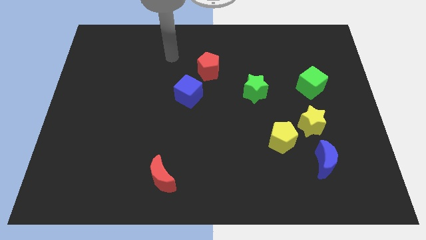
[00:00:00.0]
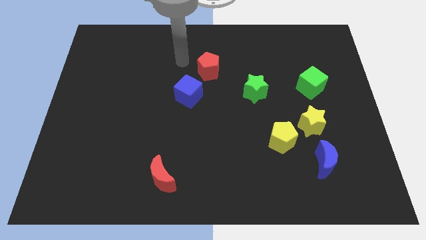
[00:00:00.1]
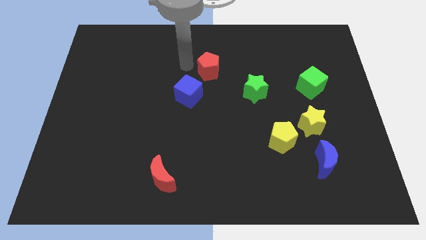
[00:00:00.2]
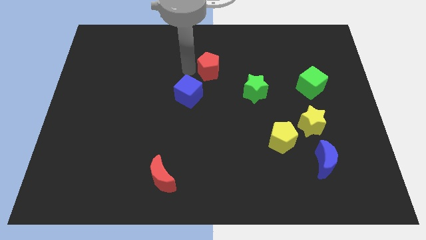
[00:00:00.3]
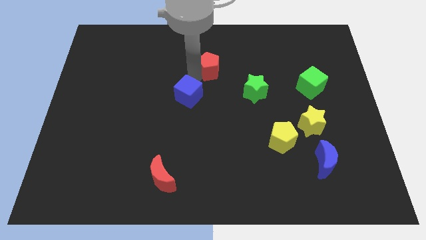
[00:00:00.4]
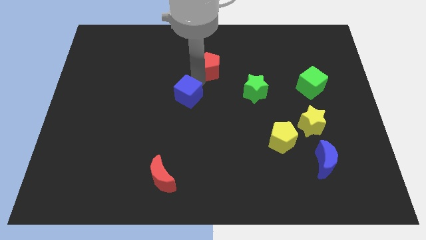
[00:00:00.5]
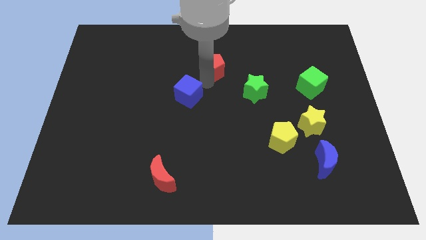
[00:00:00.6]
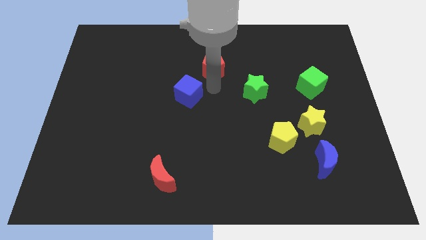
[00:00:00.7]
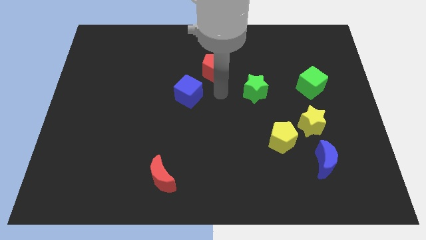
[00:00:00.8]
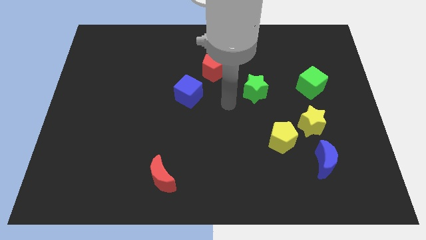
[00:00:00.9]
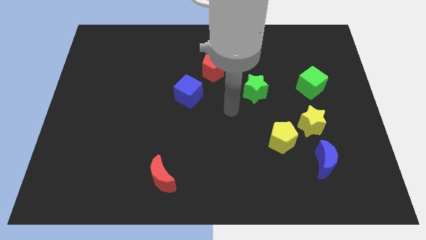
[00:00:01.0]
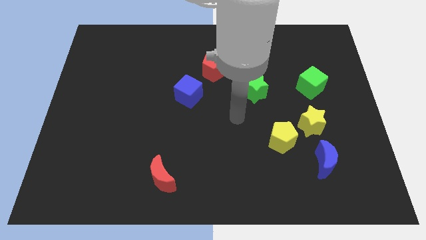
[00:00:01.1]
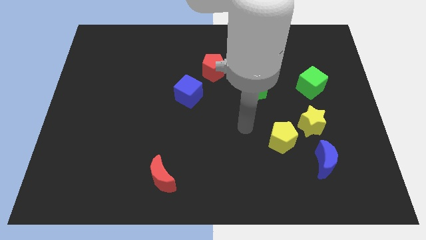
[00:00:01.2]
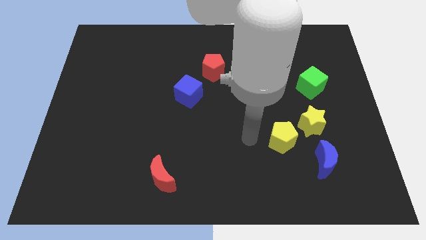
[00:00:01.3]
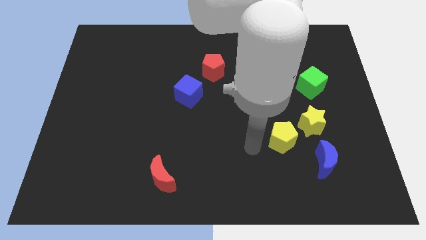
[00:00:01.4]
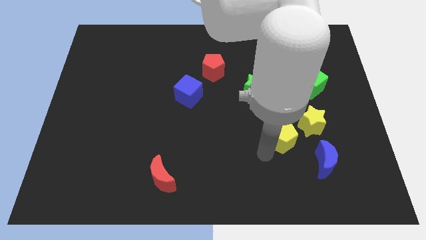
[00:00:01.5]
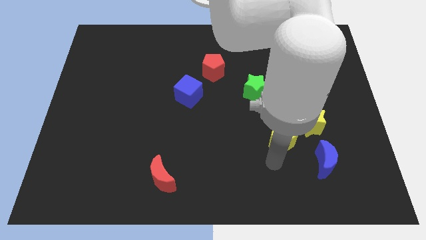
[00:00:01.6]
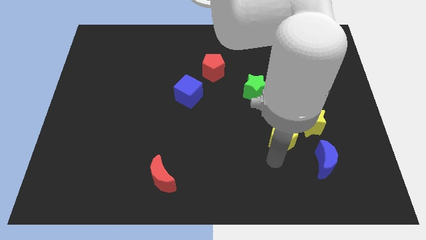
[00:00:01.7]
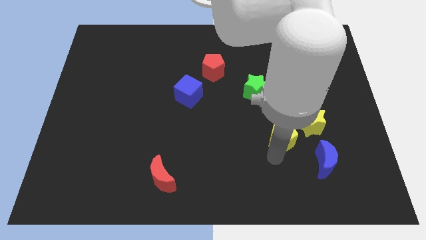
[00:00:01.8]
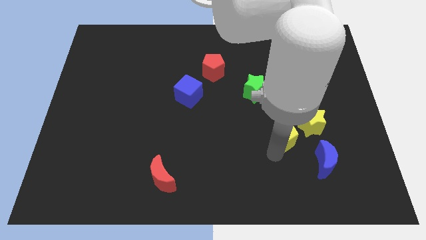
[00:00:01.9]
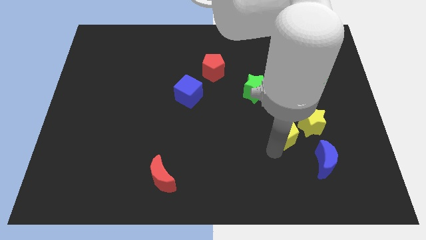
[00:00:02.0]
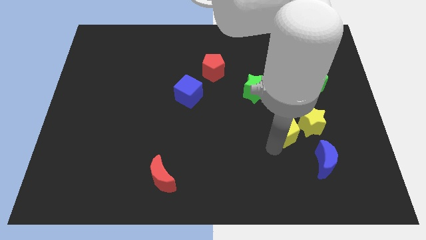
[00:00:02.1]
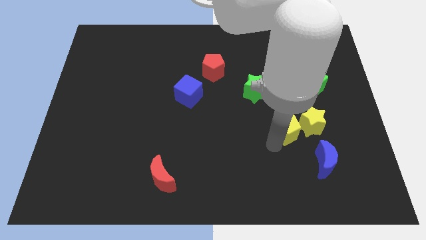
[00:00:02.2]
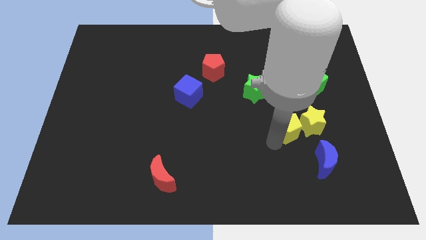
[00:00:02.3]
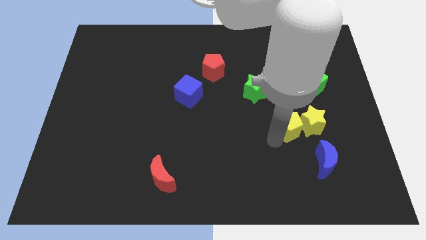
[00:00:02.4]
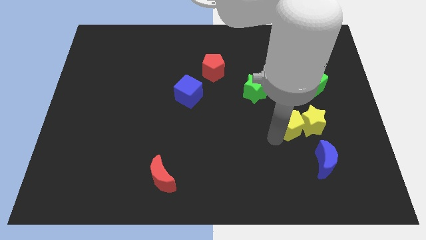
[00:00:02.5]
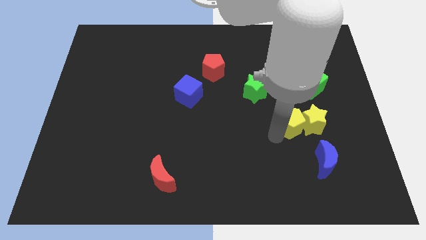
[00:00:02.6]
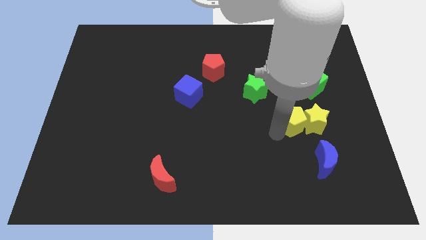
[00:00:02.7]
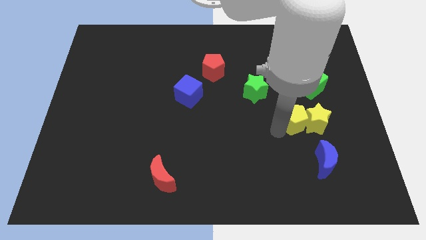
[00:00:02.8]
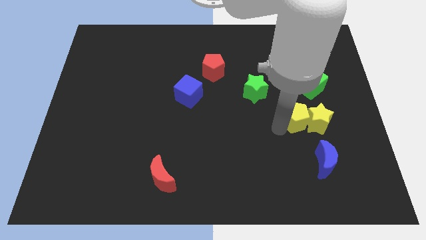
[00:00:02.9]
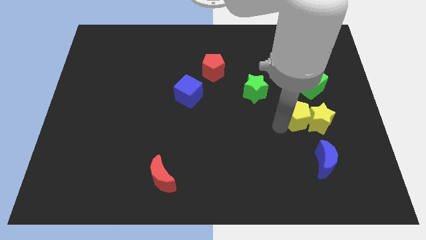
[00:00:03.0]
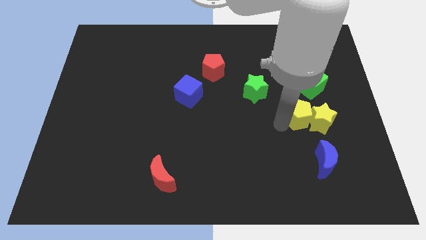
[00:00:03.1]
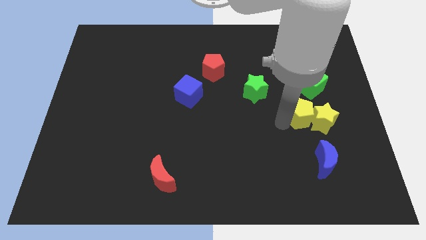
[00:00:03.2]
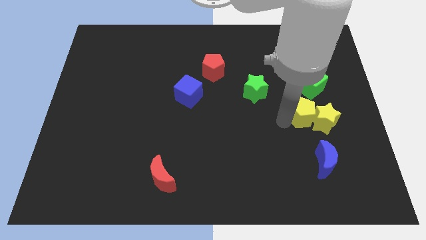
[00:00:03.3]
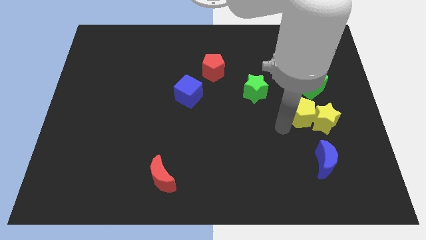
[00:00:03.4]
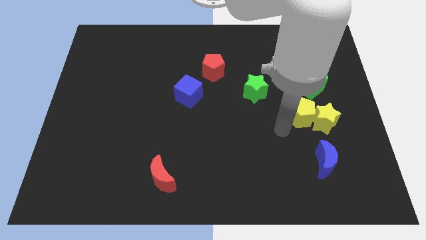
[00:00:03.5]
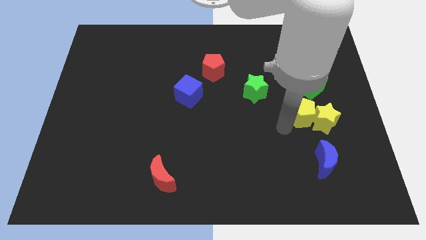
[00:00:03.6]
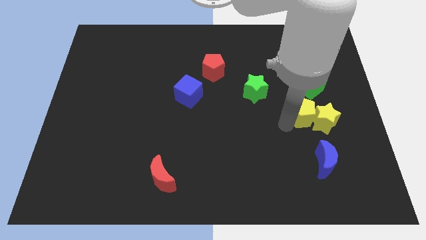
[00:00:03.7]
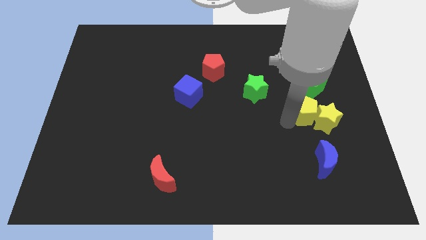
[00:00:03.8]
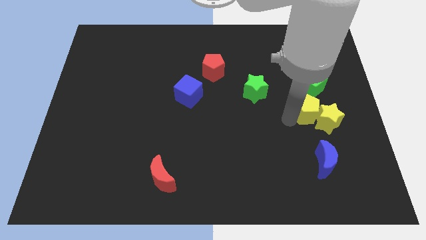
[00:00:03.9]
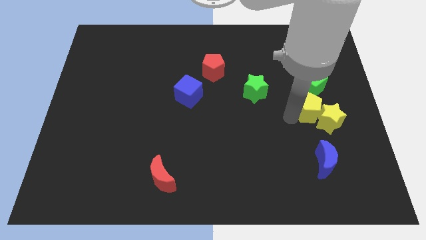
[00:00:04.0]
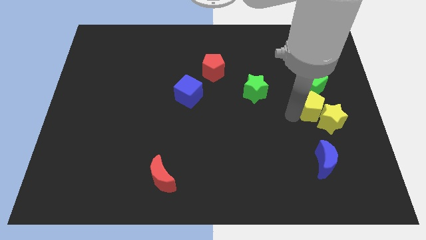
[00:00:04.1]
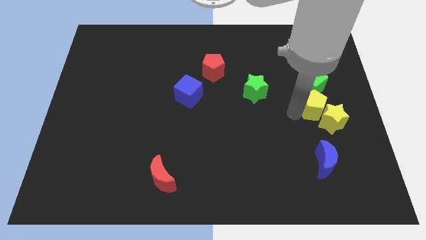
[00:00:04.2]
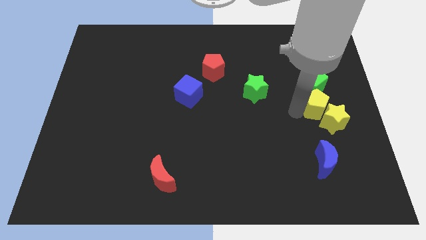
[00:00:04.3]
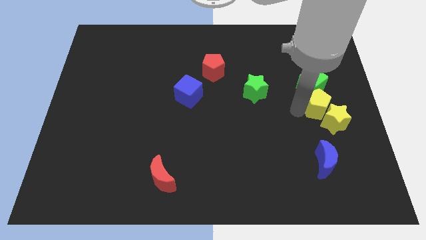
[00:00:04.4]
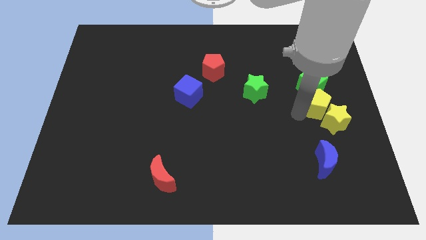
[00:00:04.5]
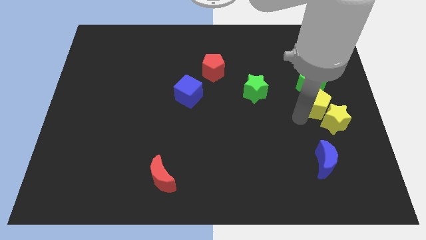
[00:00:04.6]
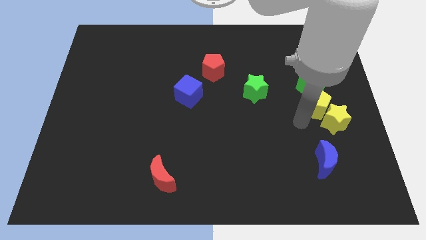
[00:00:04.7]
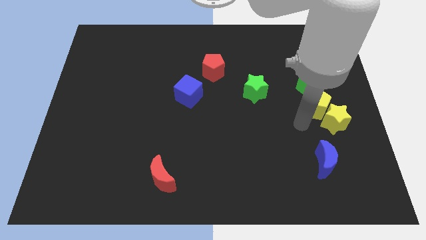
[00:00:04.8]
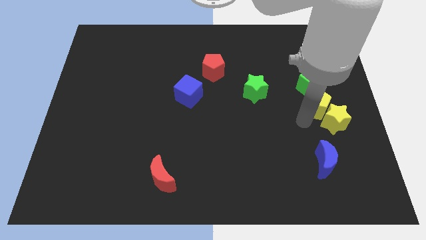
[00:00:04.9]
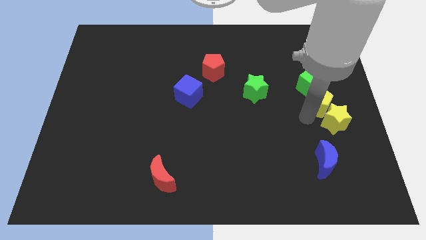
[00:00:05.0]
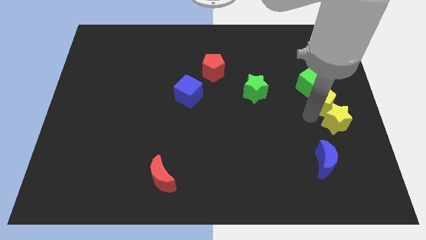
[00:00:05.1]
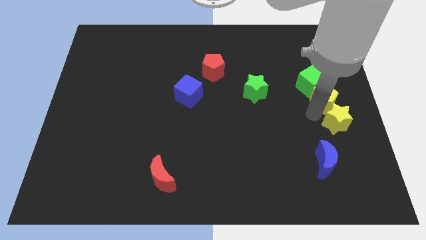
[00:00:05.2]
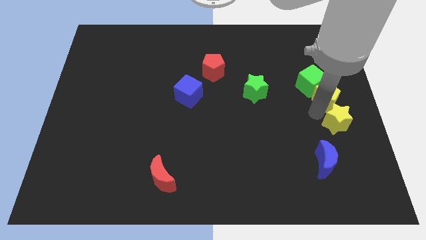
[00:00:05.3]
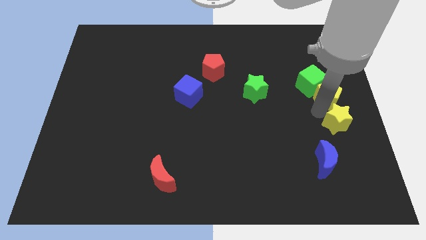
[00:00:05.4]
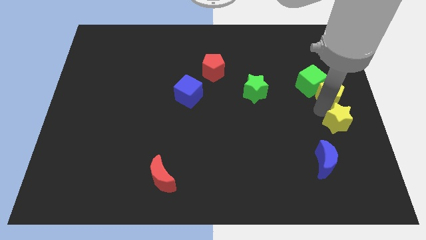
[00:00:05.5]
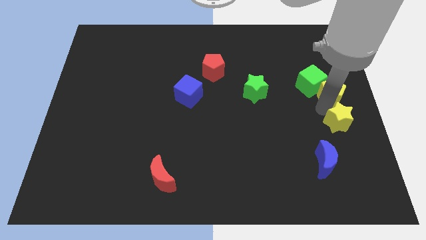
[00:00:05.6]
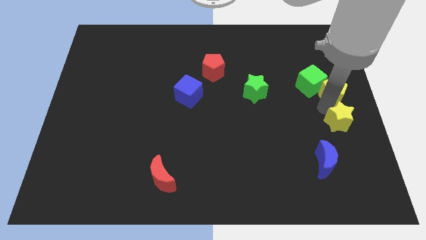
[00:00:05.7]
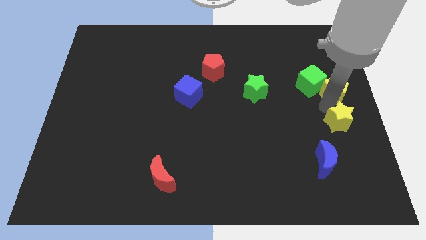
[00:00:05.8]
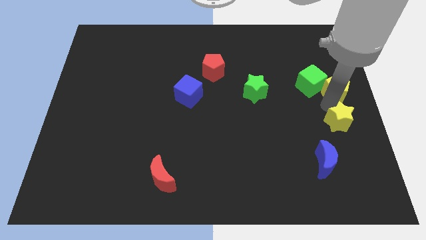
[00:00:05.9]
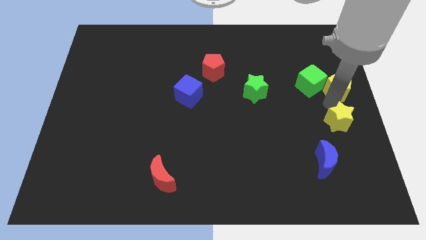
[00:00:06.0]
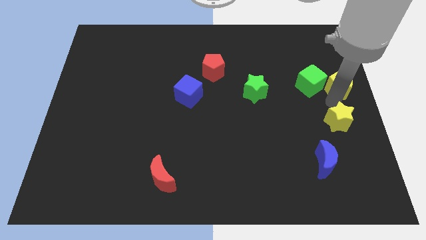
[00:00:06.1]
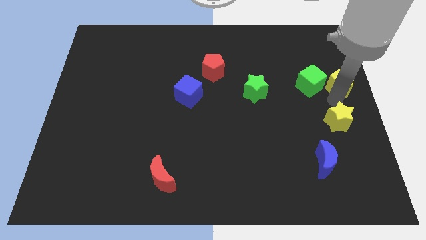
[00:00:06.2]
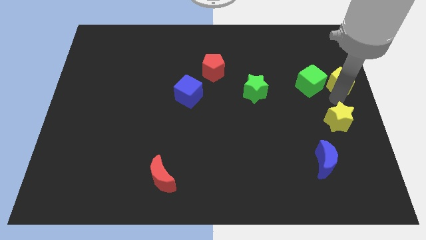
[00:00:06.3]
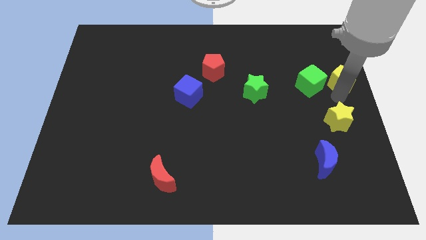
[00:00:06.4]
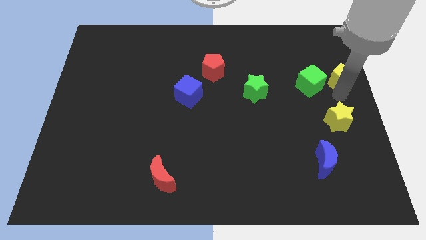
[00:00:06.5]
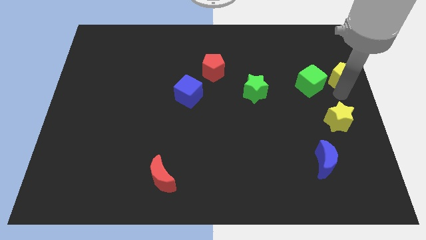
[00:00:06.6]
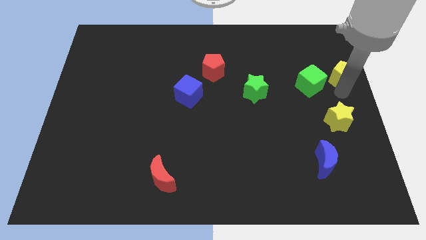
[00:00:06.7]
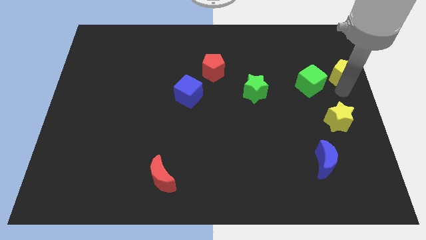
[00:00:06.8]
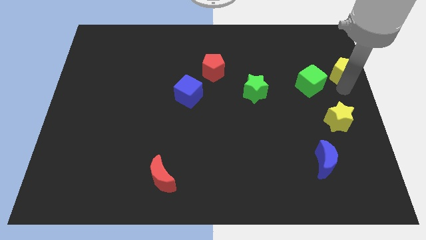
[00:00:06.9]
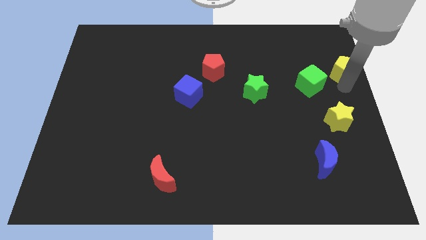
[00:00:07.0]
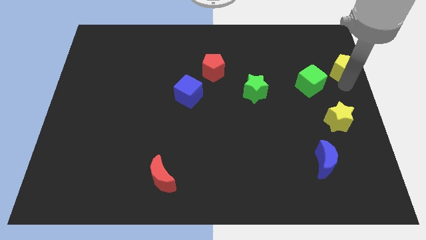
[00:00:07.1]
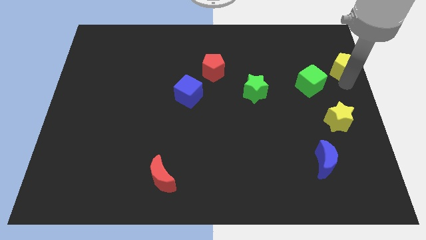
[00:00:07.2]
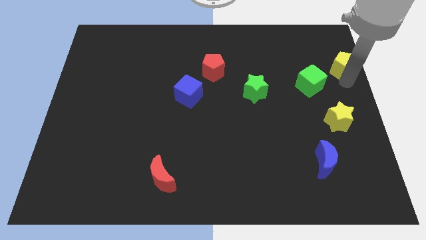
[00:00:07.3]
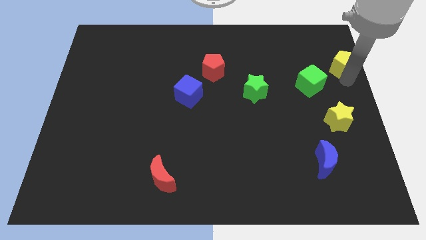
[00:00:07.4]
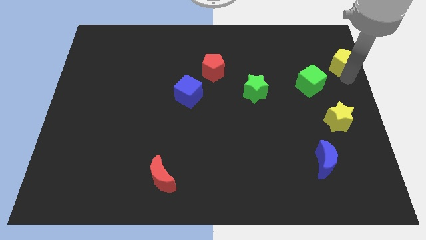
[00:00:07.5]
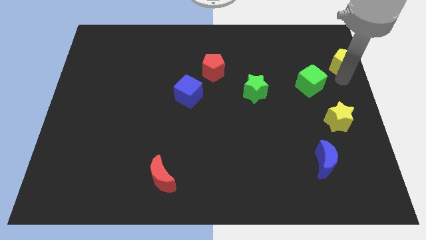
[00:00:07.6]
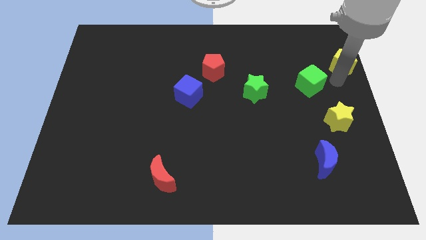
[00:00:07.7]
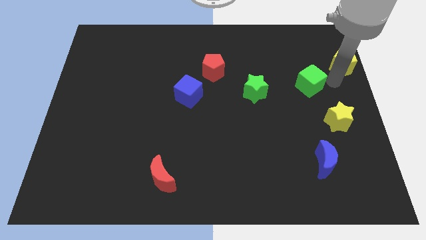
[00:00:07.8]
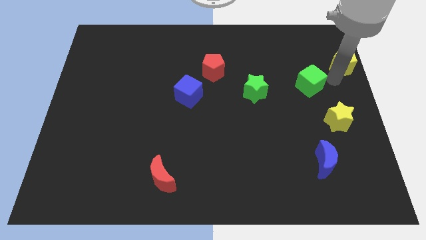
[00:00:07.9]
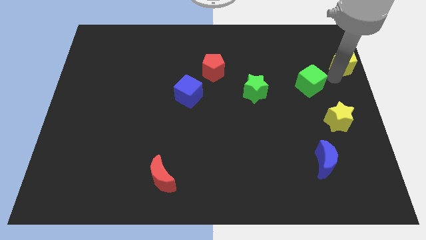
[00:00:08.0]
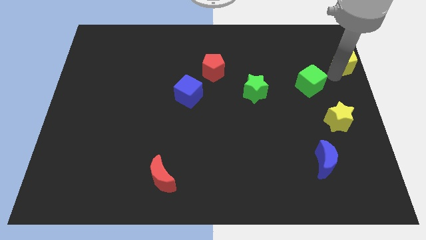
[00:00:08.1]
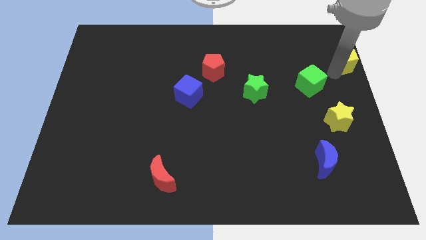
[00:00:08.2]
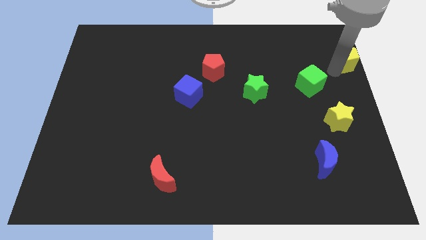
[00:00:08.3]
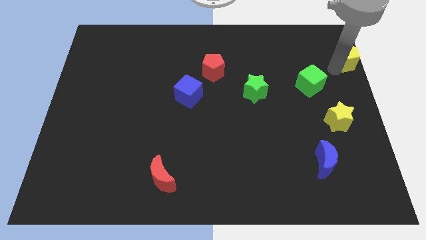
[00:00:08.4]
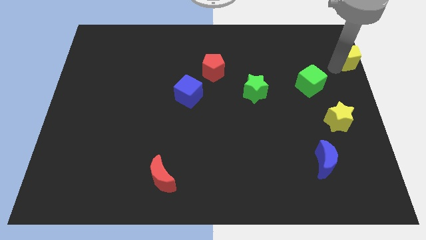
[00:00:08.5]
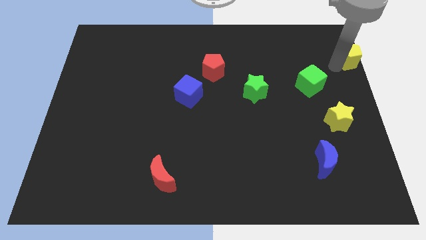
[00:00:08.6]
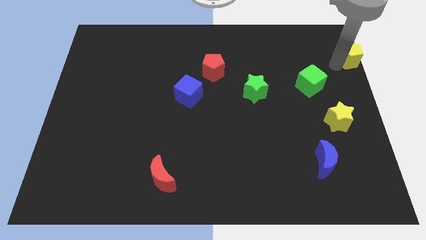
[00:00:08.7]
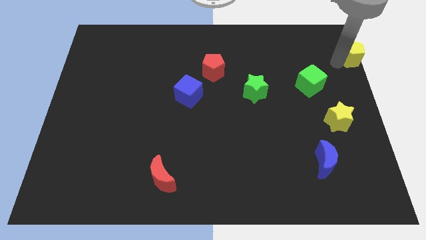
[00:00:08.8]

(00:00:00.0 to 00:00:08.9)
move the yellow pentagon to the top right
